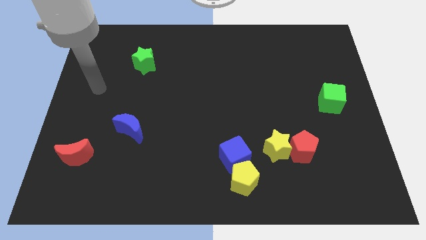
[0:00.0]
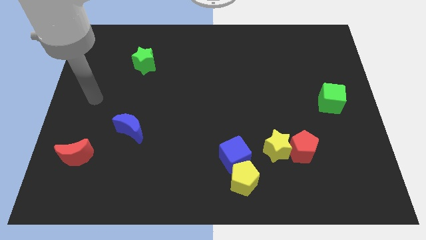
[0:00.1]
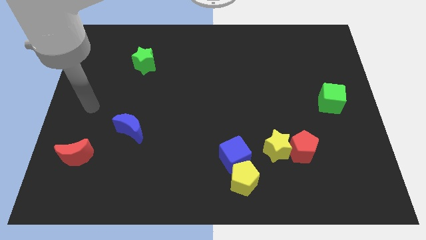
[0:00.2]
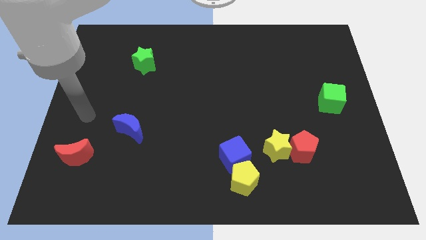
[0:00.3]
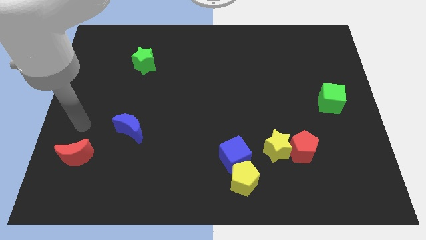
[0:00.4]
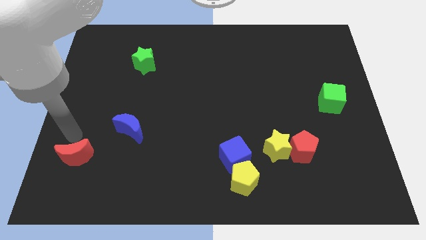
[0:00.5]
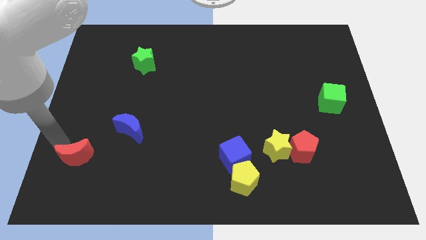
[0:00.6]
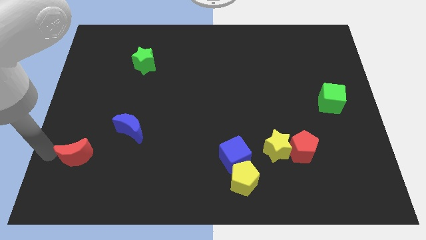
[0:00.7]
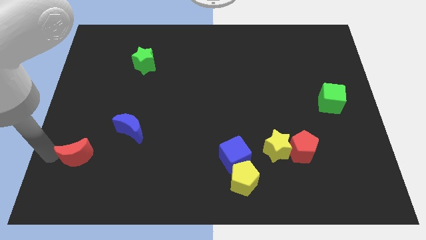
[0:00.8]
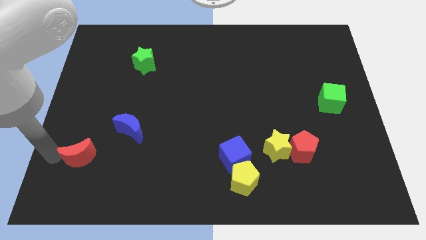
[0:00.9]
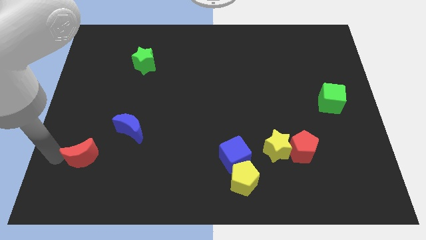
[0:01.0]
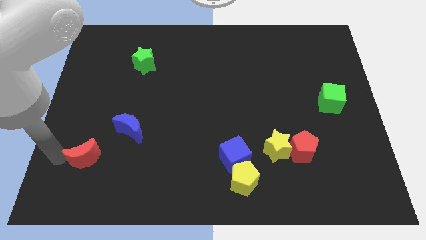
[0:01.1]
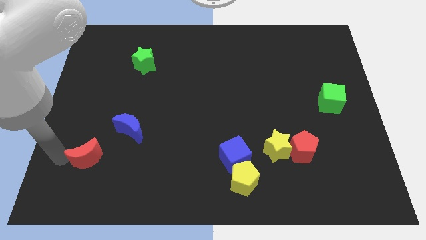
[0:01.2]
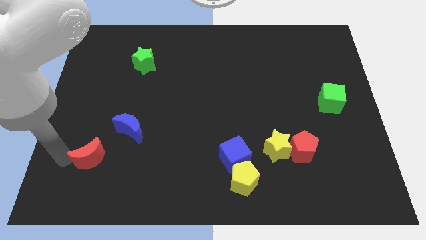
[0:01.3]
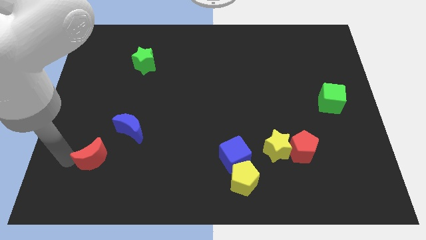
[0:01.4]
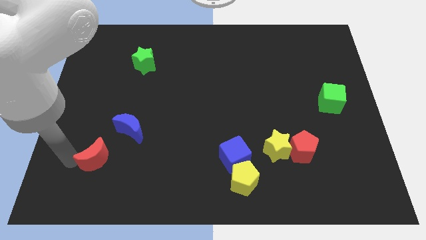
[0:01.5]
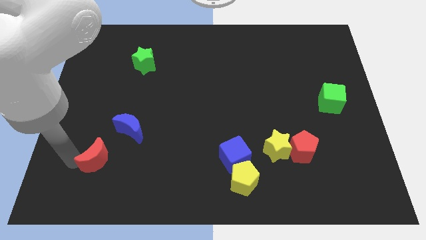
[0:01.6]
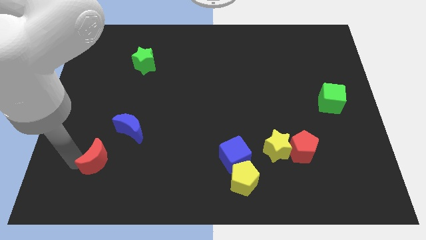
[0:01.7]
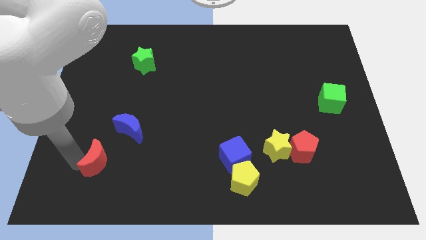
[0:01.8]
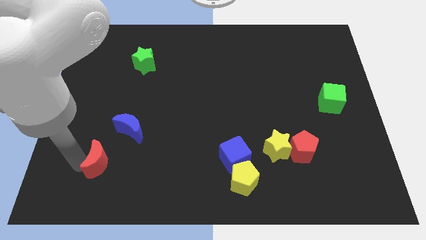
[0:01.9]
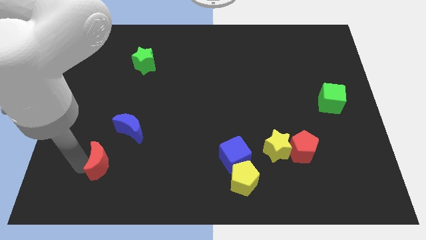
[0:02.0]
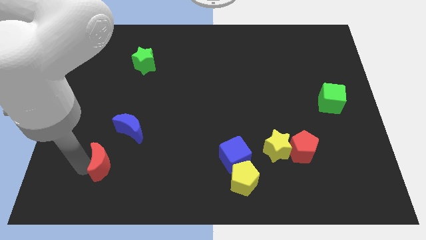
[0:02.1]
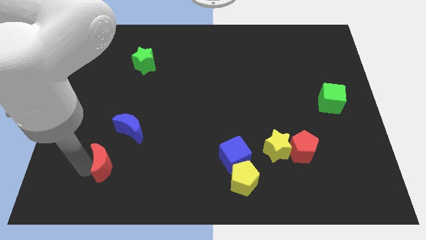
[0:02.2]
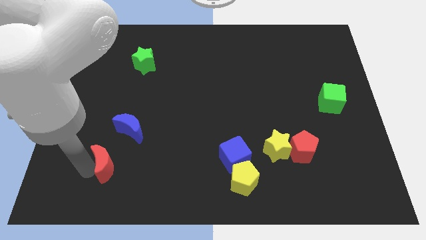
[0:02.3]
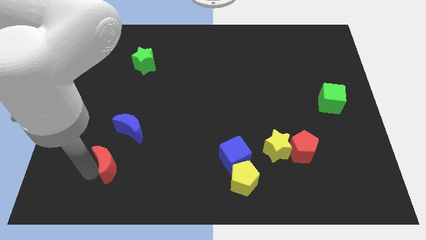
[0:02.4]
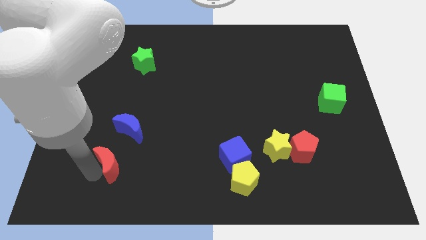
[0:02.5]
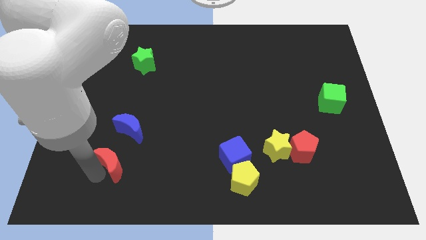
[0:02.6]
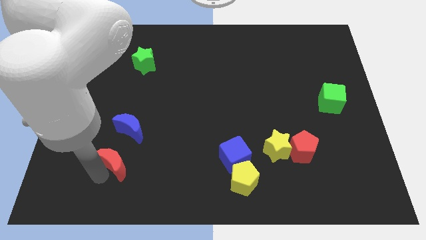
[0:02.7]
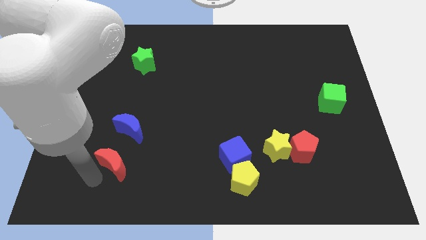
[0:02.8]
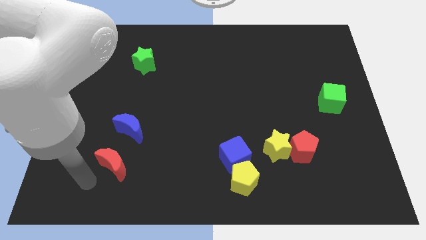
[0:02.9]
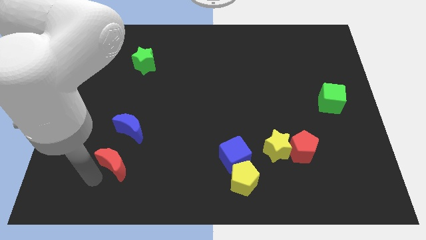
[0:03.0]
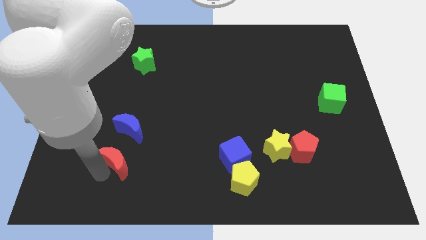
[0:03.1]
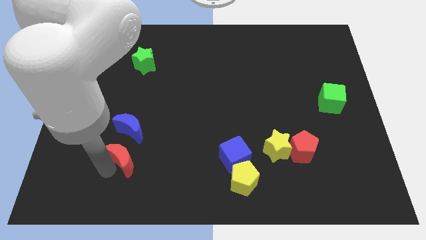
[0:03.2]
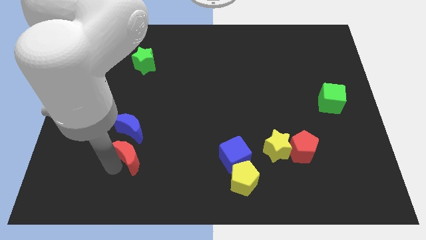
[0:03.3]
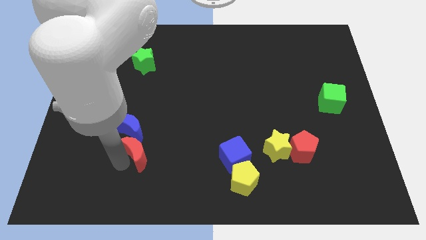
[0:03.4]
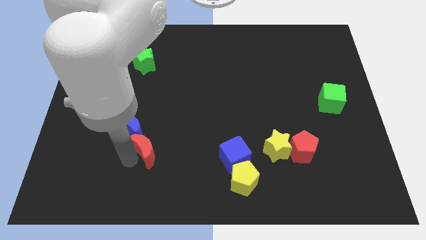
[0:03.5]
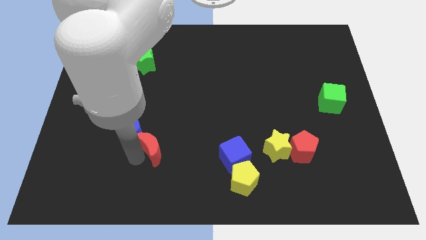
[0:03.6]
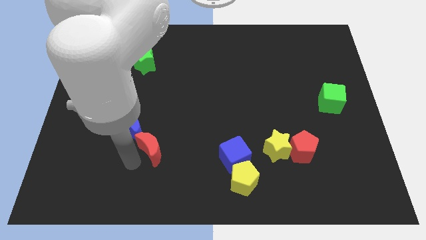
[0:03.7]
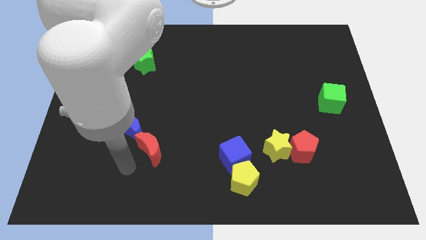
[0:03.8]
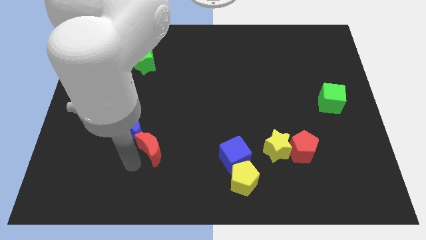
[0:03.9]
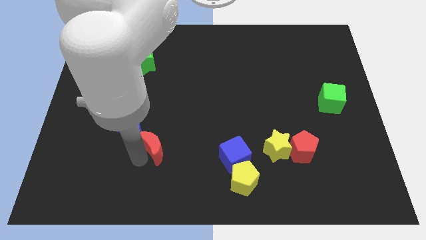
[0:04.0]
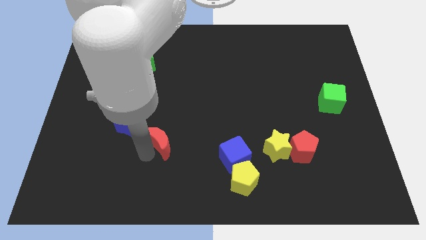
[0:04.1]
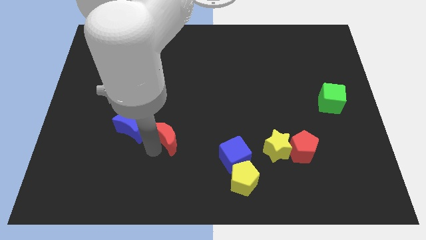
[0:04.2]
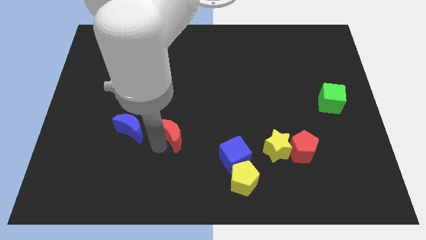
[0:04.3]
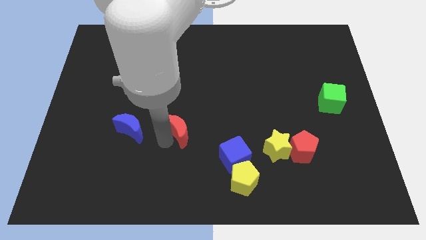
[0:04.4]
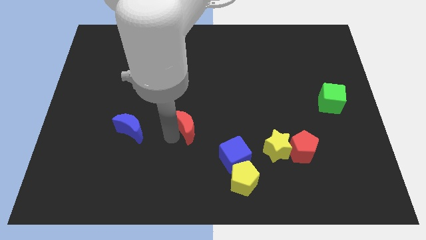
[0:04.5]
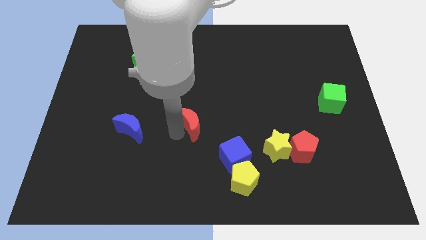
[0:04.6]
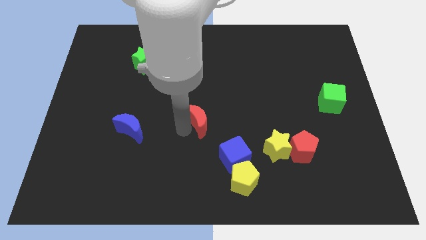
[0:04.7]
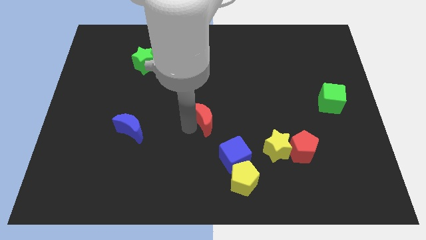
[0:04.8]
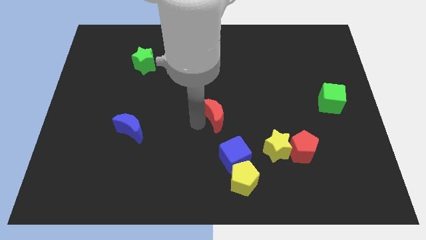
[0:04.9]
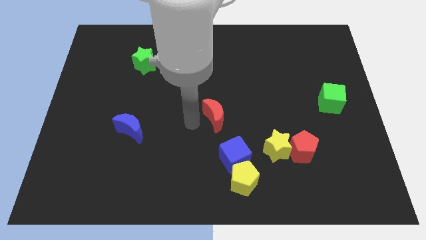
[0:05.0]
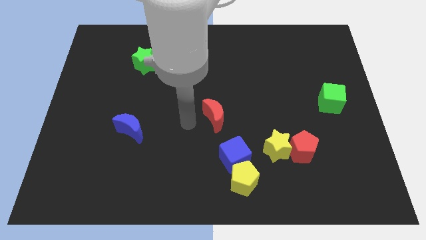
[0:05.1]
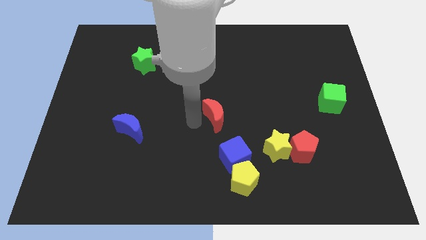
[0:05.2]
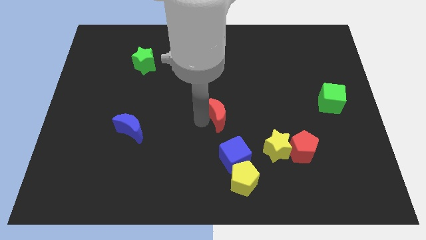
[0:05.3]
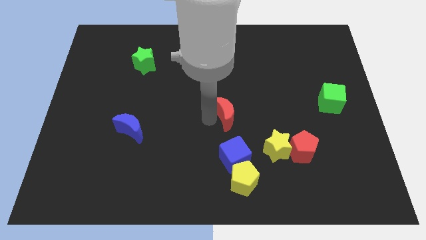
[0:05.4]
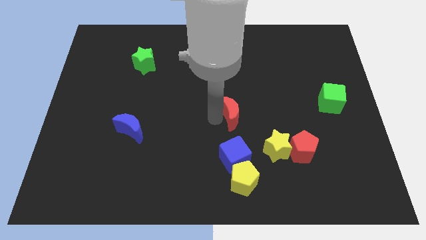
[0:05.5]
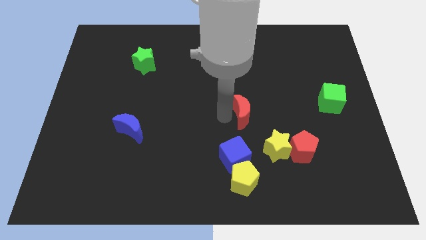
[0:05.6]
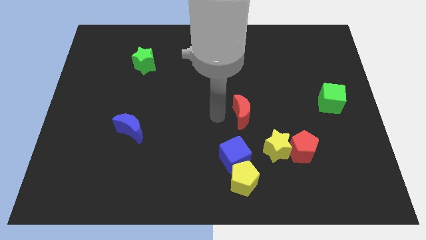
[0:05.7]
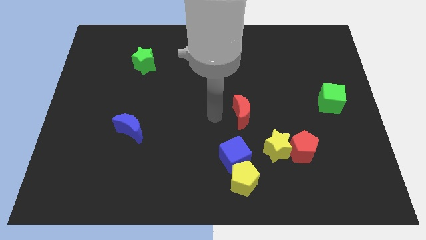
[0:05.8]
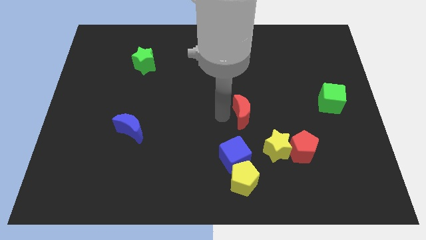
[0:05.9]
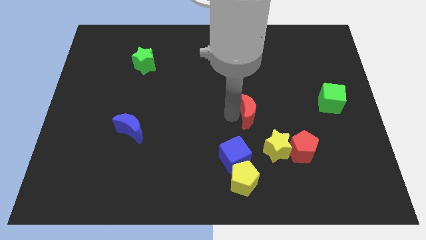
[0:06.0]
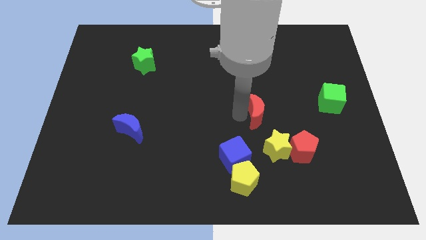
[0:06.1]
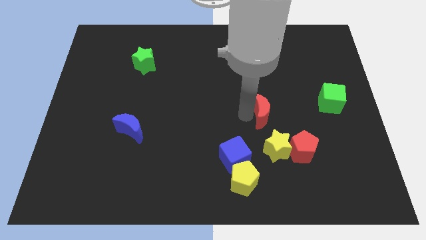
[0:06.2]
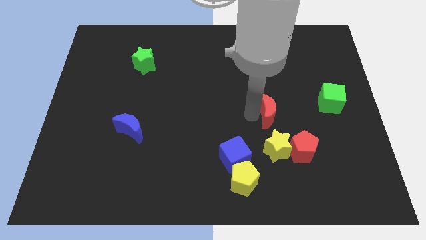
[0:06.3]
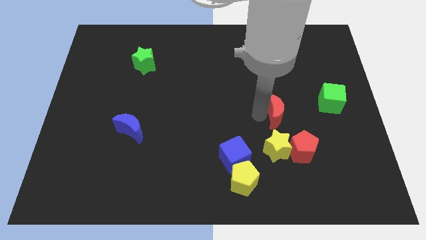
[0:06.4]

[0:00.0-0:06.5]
move the red moon to the top side of the red pentagon

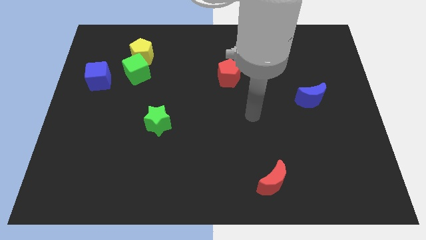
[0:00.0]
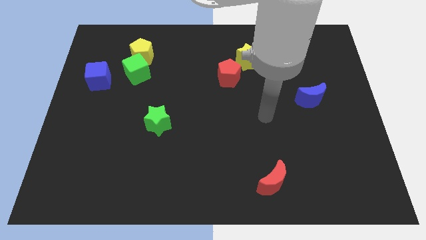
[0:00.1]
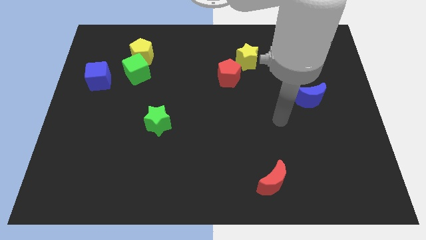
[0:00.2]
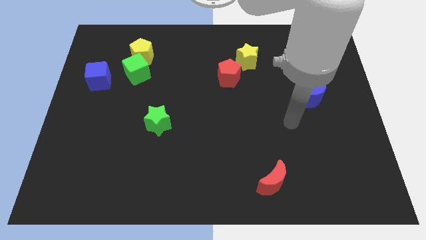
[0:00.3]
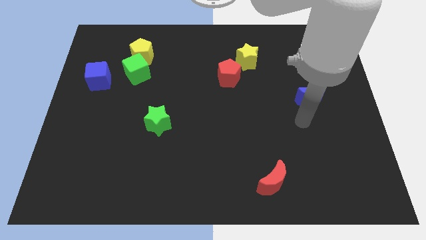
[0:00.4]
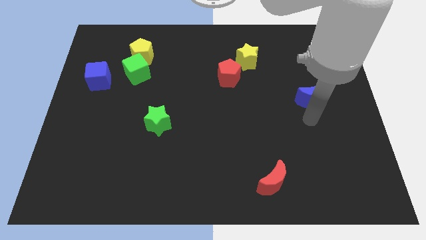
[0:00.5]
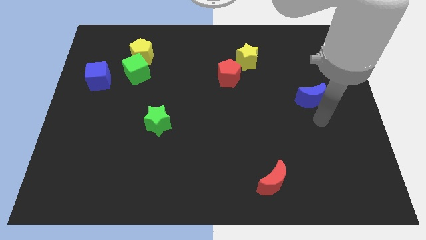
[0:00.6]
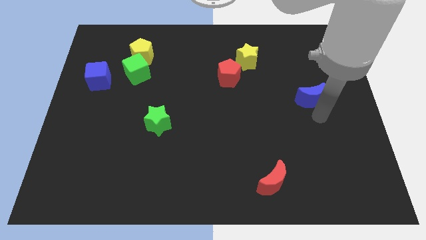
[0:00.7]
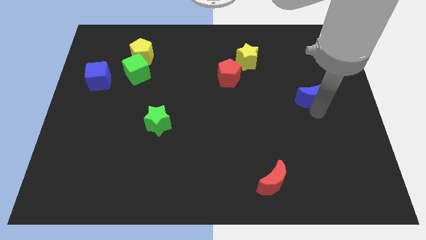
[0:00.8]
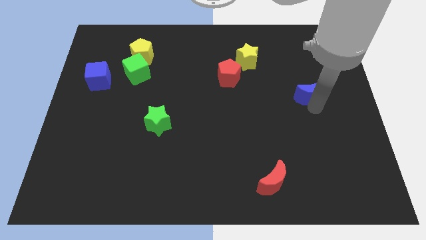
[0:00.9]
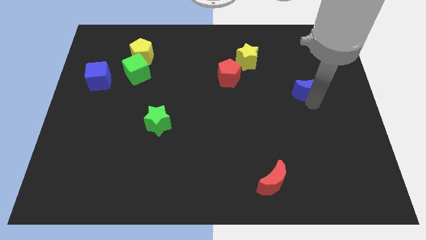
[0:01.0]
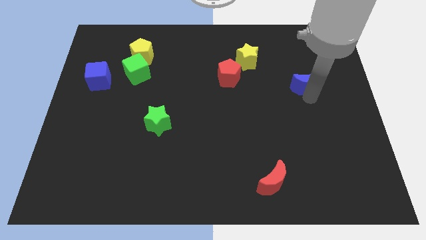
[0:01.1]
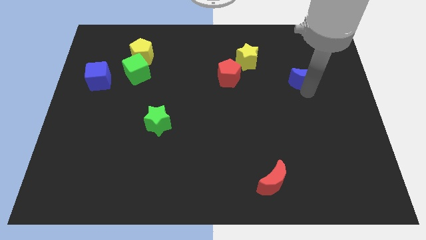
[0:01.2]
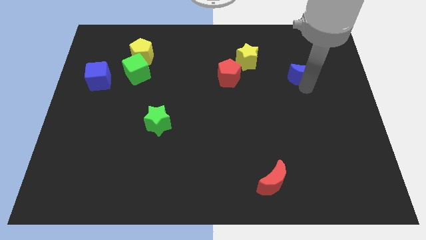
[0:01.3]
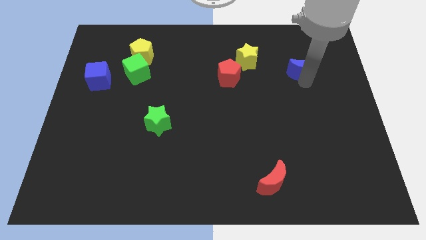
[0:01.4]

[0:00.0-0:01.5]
push the blue moon just right of the yellow star
